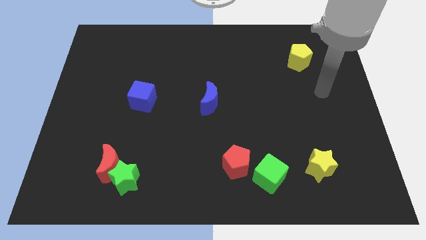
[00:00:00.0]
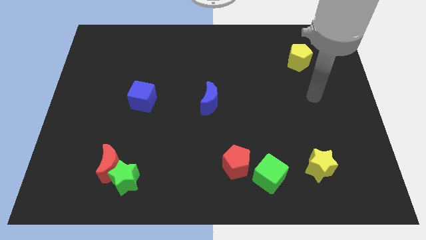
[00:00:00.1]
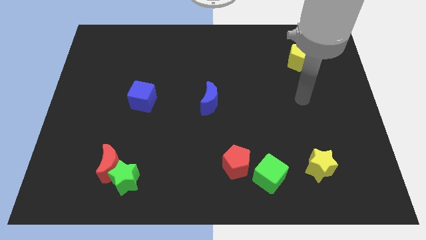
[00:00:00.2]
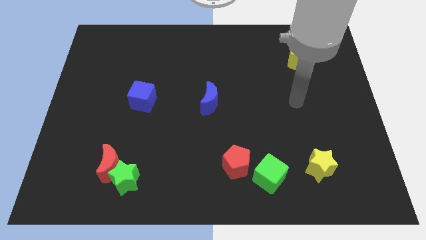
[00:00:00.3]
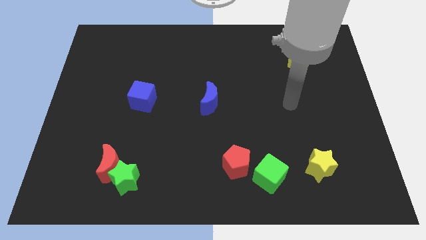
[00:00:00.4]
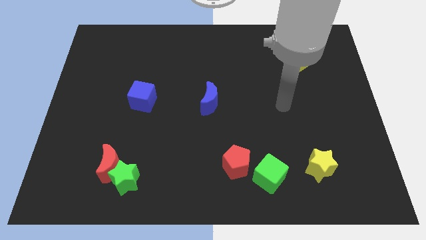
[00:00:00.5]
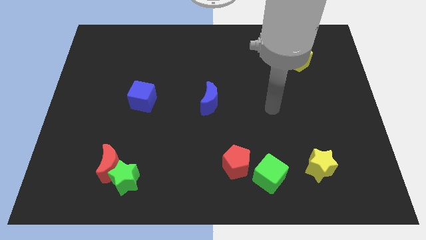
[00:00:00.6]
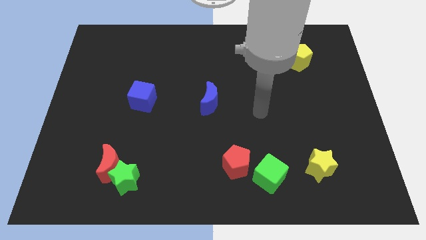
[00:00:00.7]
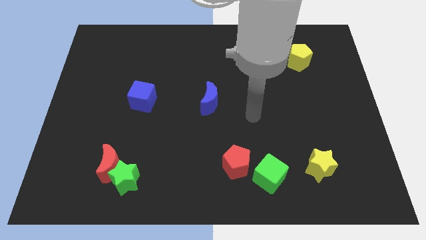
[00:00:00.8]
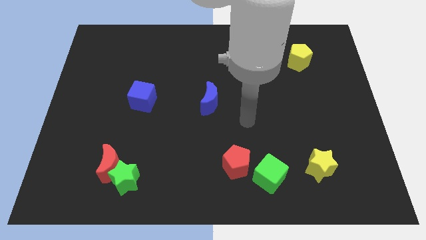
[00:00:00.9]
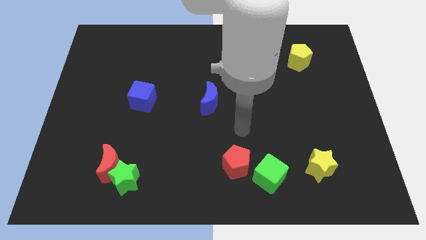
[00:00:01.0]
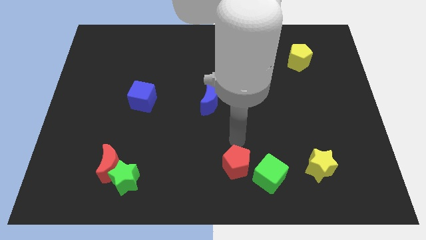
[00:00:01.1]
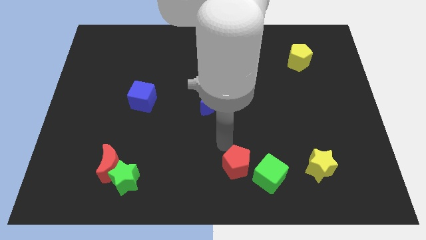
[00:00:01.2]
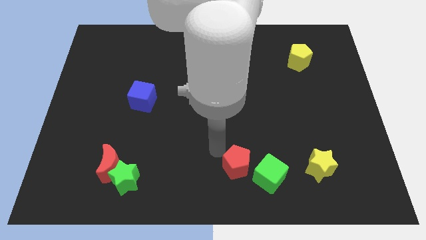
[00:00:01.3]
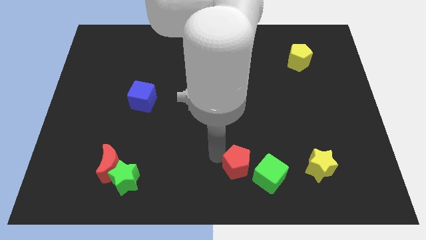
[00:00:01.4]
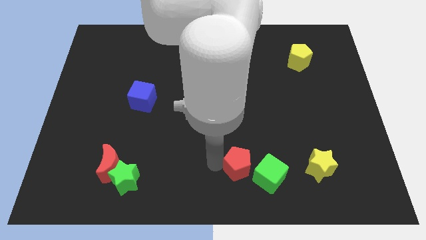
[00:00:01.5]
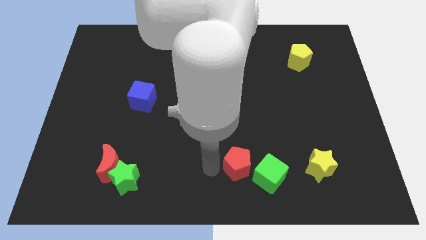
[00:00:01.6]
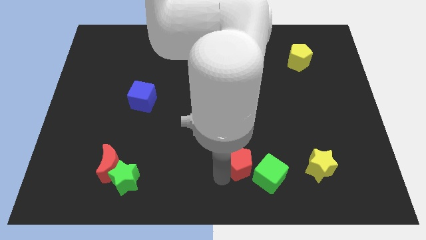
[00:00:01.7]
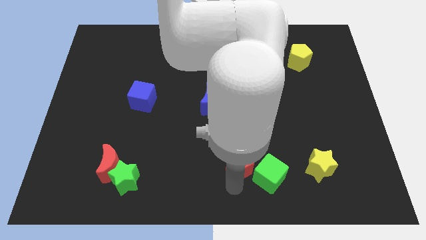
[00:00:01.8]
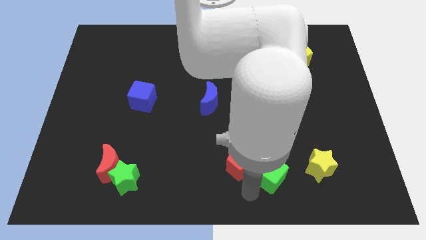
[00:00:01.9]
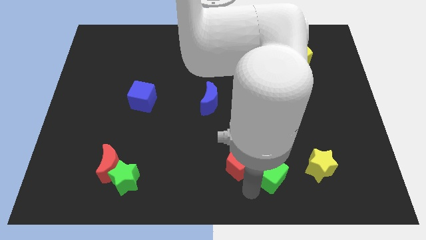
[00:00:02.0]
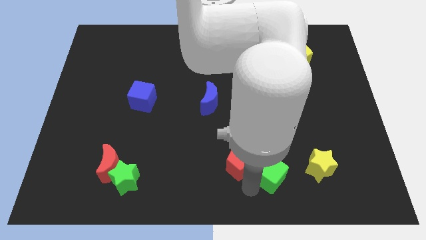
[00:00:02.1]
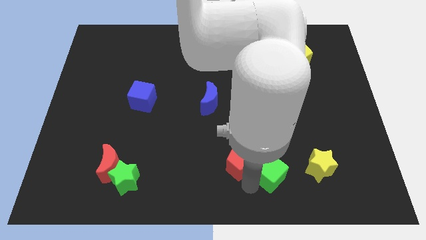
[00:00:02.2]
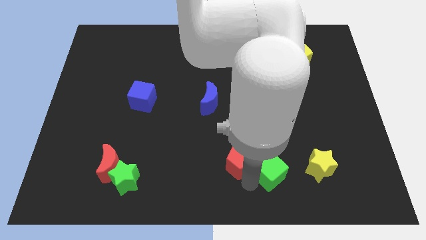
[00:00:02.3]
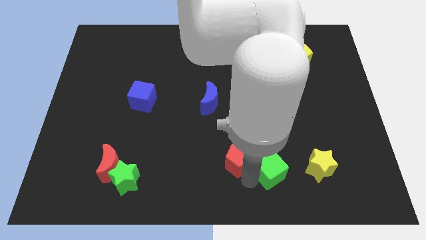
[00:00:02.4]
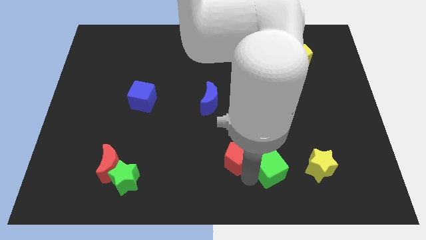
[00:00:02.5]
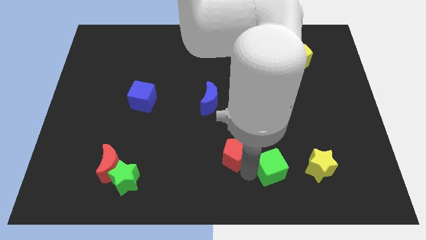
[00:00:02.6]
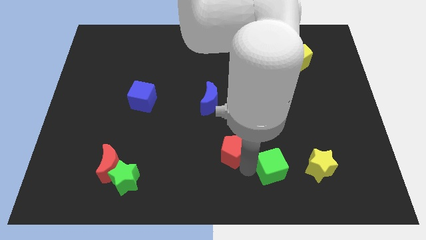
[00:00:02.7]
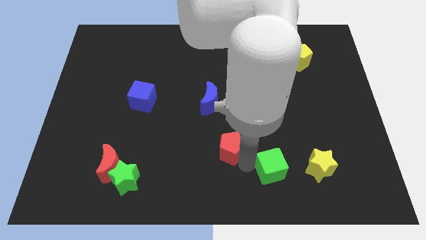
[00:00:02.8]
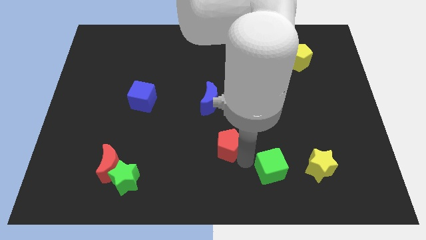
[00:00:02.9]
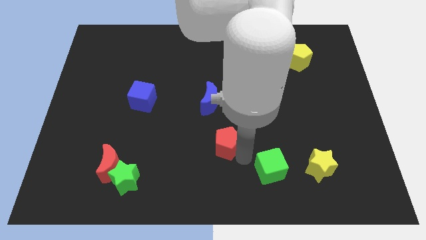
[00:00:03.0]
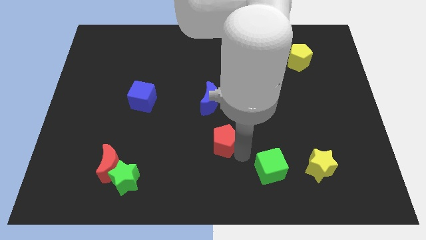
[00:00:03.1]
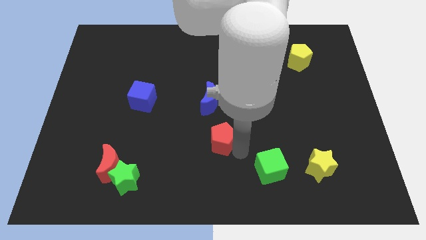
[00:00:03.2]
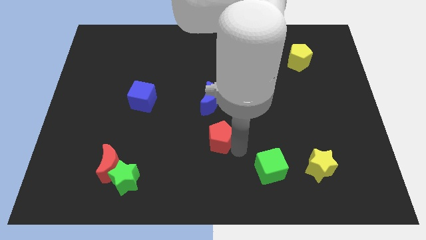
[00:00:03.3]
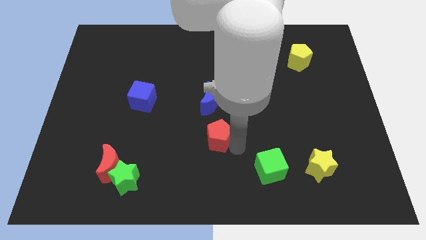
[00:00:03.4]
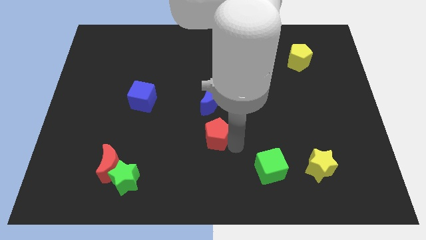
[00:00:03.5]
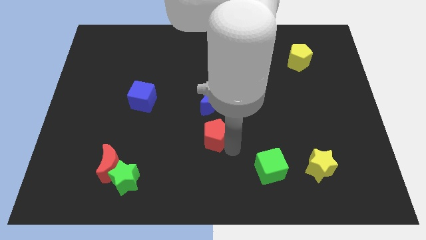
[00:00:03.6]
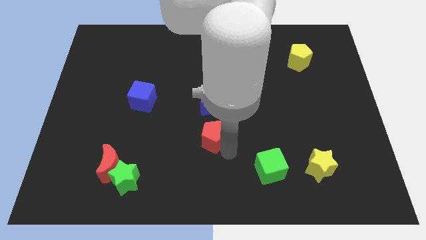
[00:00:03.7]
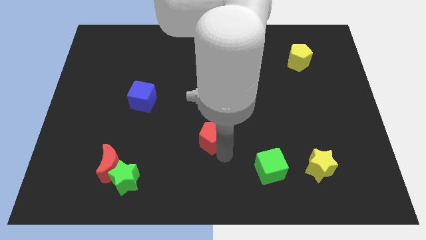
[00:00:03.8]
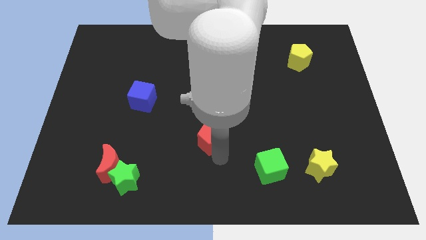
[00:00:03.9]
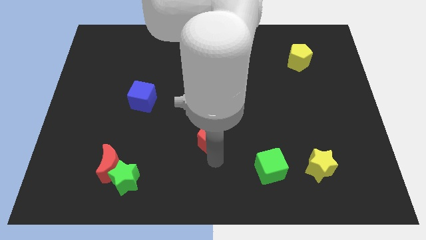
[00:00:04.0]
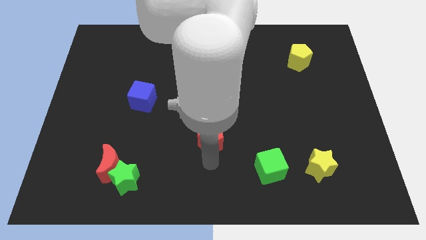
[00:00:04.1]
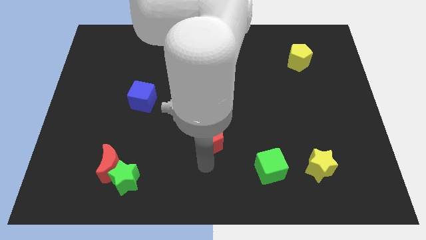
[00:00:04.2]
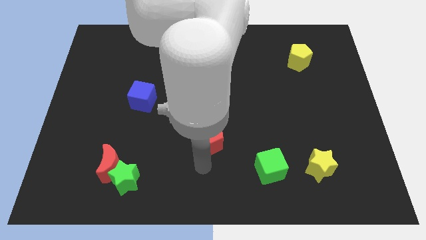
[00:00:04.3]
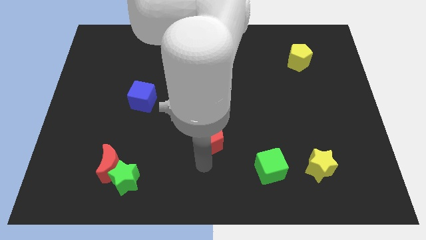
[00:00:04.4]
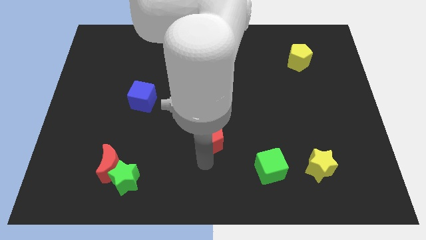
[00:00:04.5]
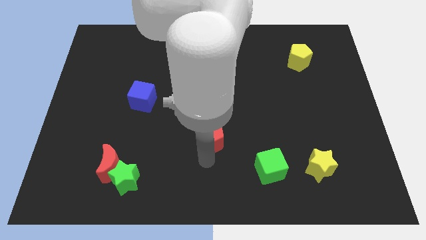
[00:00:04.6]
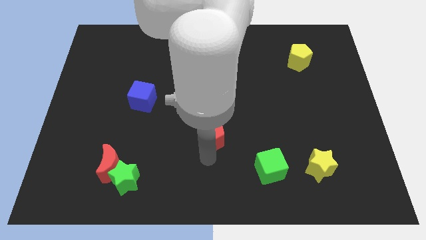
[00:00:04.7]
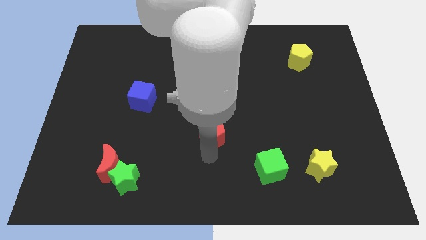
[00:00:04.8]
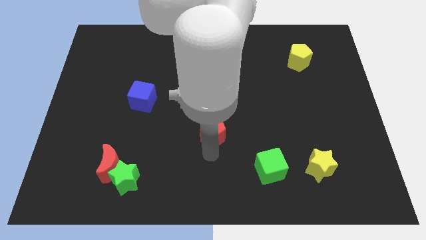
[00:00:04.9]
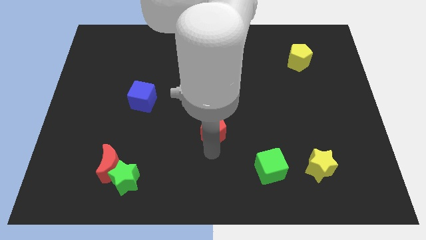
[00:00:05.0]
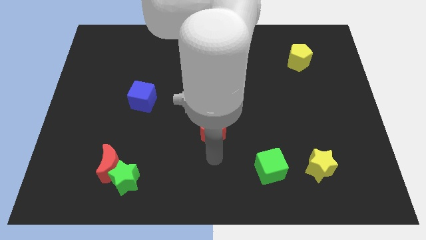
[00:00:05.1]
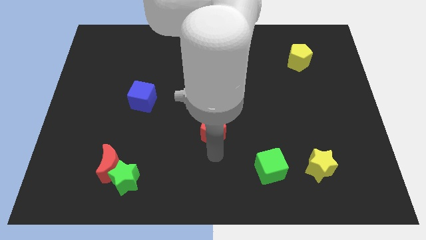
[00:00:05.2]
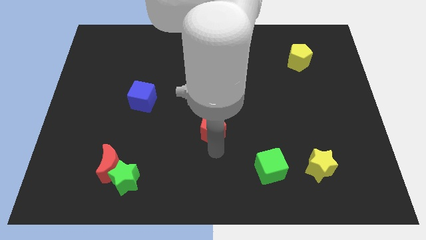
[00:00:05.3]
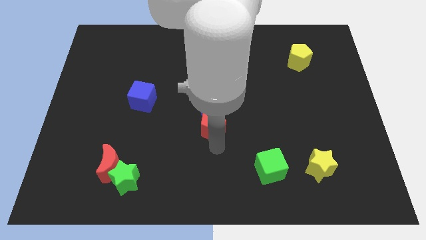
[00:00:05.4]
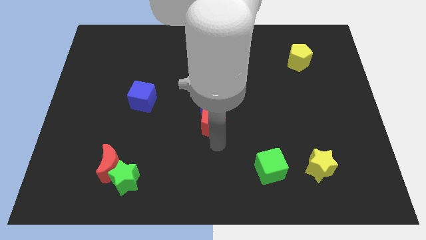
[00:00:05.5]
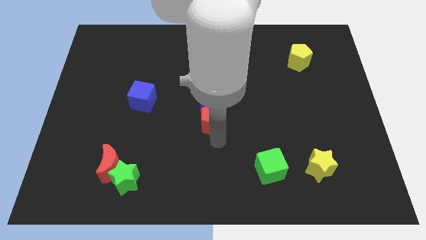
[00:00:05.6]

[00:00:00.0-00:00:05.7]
push the red pentagon to the blue moon

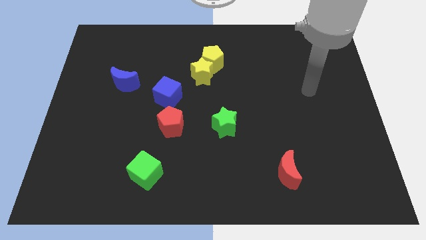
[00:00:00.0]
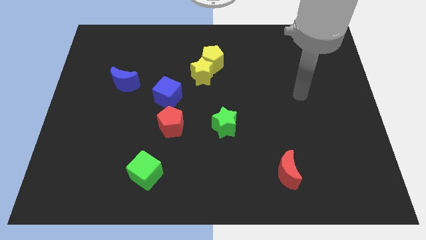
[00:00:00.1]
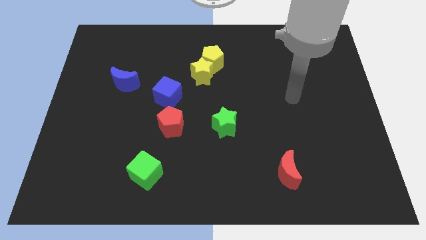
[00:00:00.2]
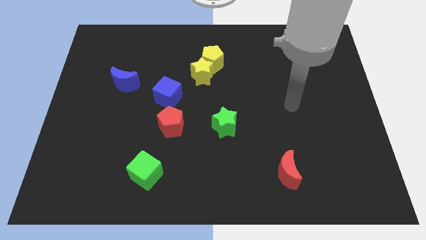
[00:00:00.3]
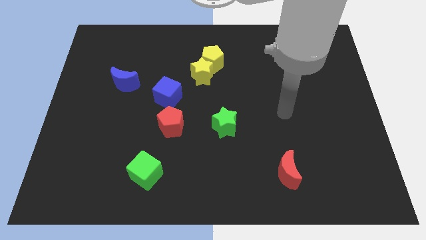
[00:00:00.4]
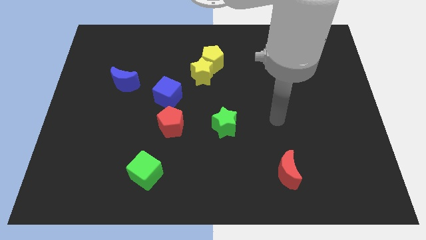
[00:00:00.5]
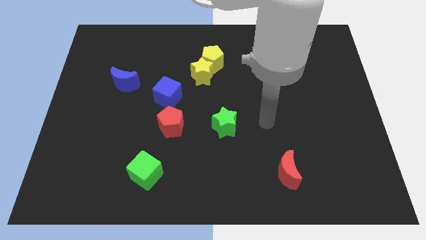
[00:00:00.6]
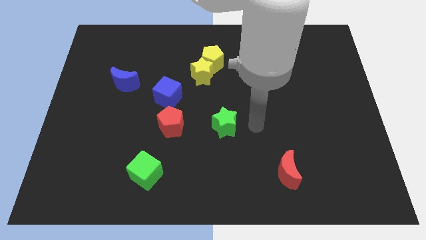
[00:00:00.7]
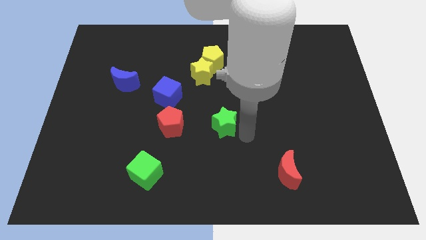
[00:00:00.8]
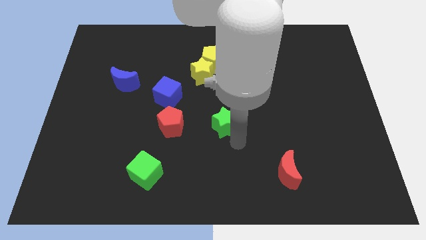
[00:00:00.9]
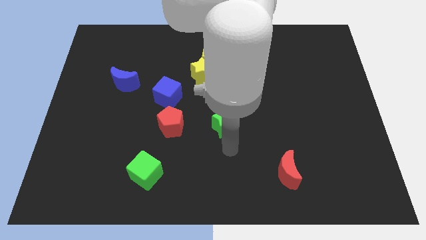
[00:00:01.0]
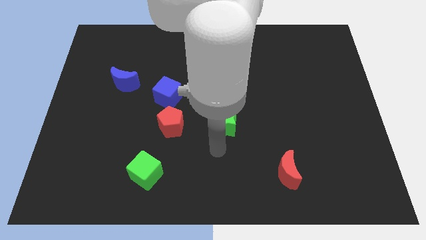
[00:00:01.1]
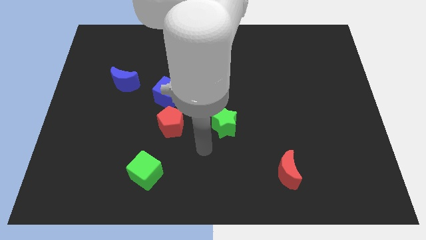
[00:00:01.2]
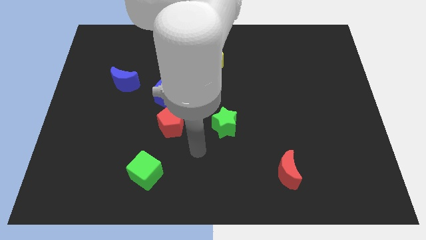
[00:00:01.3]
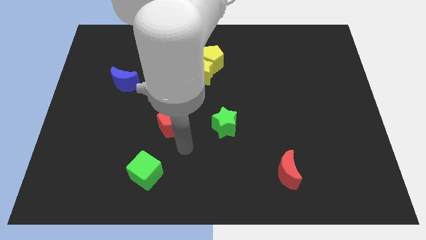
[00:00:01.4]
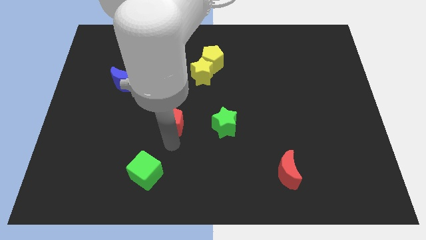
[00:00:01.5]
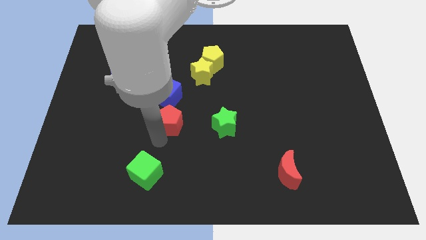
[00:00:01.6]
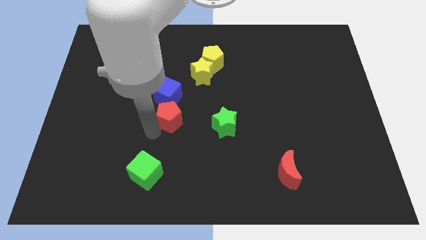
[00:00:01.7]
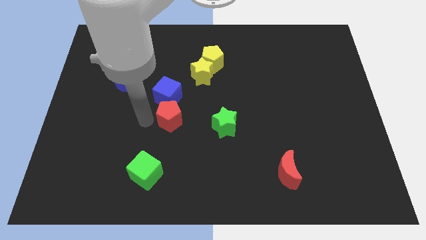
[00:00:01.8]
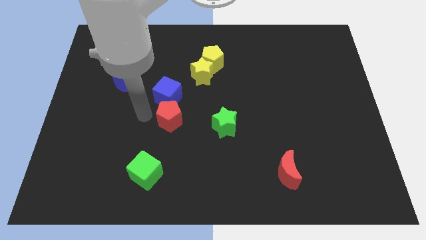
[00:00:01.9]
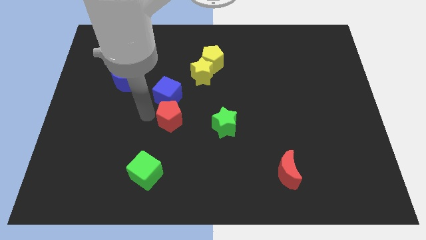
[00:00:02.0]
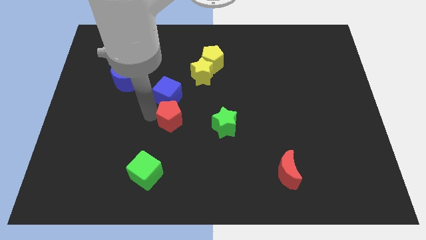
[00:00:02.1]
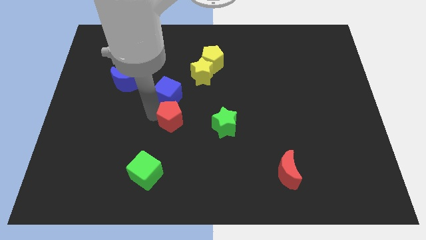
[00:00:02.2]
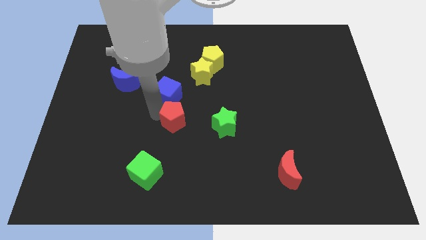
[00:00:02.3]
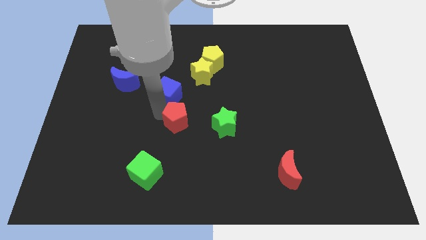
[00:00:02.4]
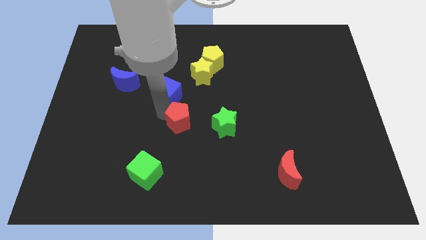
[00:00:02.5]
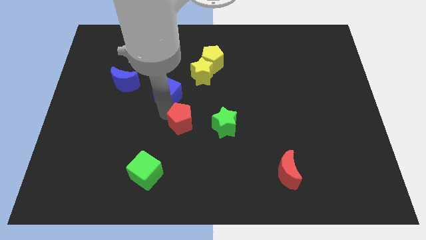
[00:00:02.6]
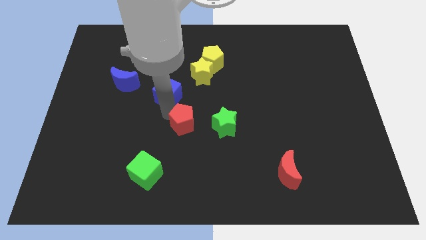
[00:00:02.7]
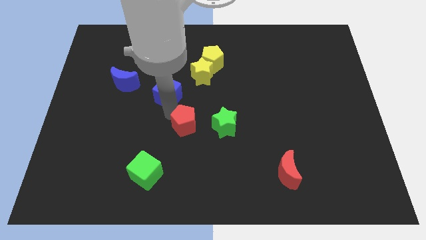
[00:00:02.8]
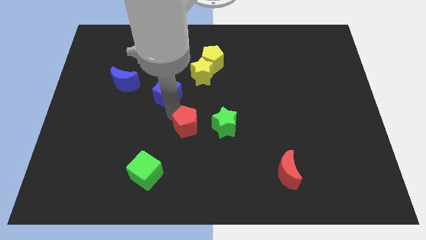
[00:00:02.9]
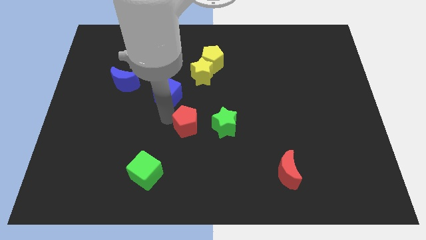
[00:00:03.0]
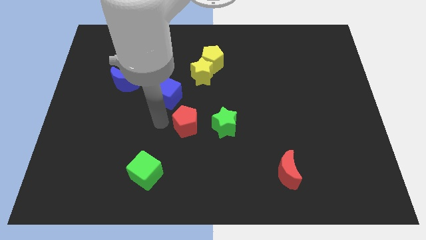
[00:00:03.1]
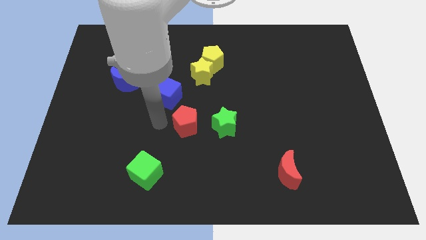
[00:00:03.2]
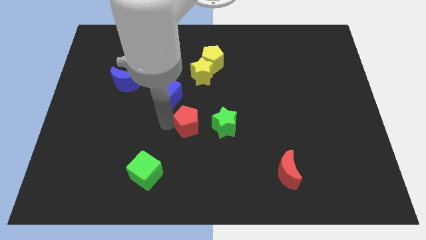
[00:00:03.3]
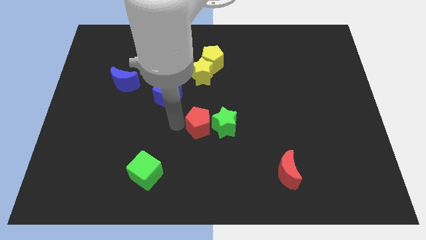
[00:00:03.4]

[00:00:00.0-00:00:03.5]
slide the red pentagon towards the green star
